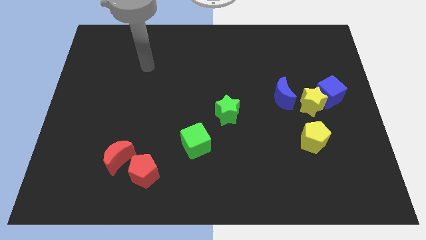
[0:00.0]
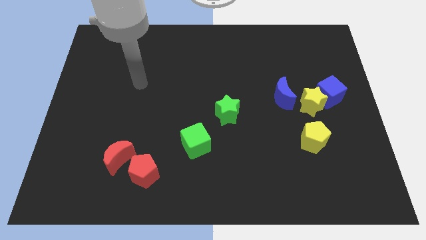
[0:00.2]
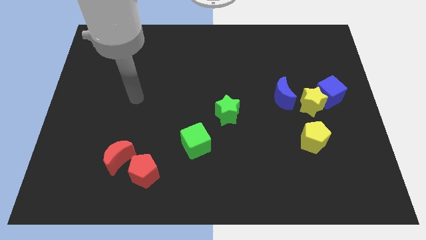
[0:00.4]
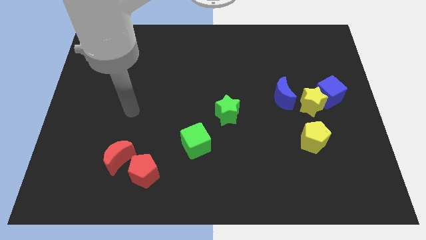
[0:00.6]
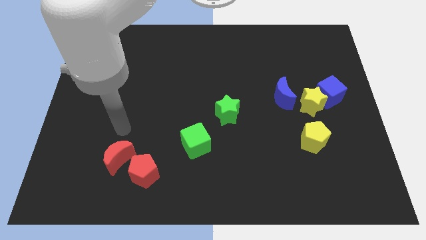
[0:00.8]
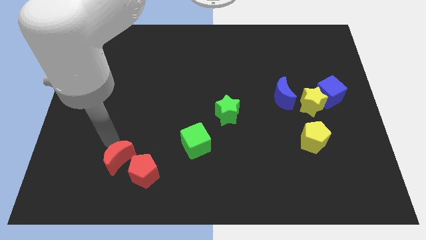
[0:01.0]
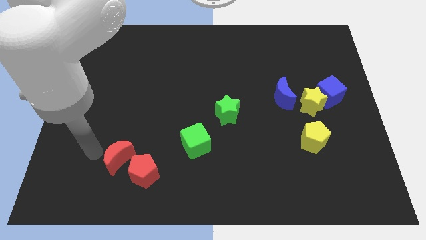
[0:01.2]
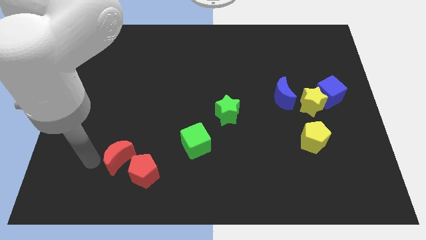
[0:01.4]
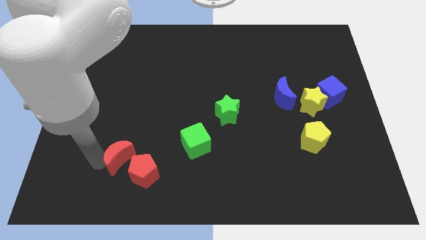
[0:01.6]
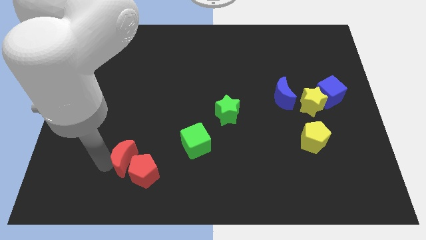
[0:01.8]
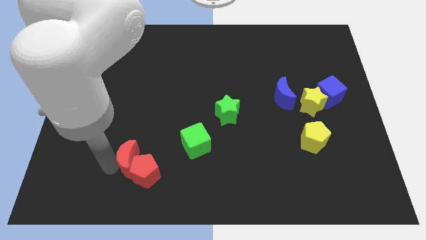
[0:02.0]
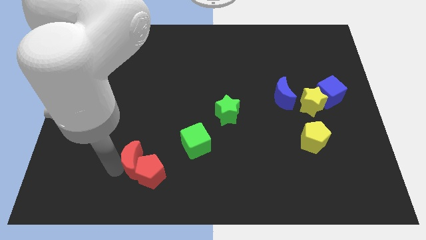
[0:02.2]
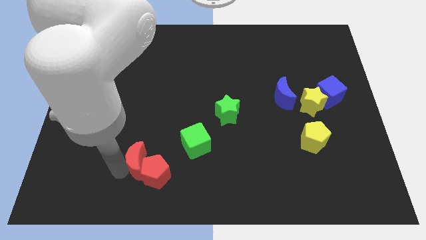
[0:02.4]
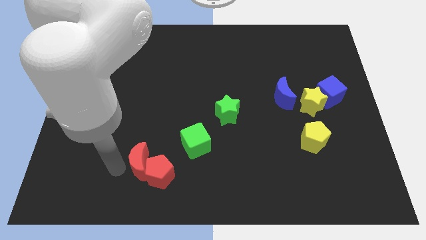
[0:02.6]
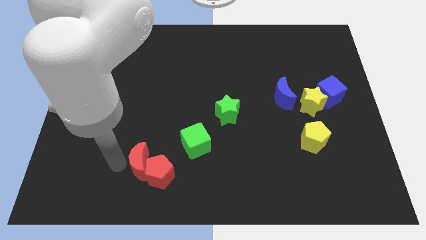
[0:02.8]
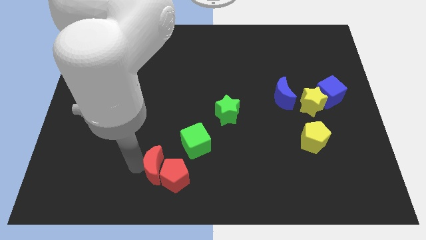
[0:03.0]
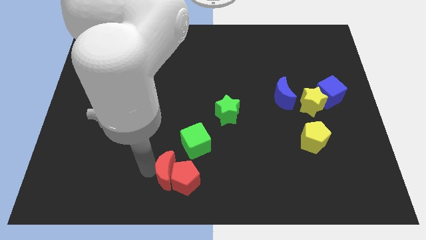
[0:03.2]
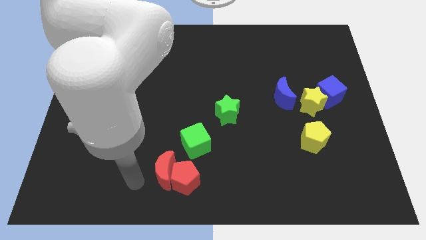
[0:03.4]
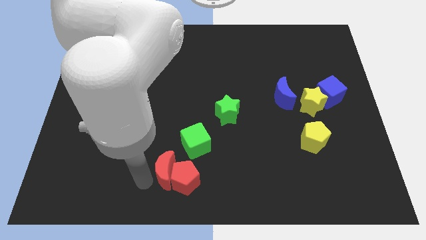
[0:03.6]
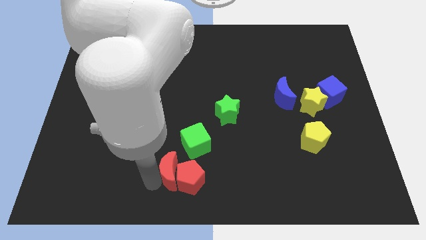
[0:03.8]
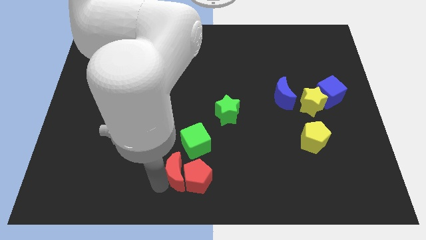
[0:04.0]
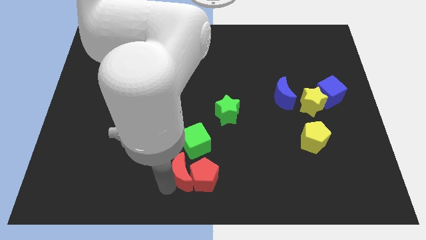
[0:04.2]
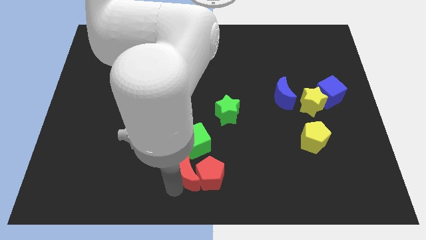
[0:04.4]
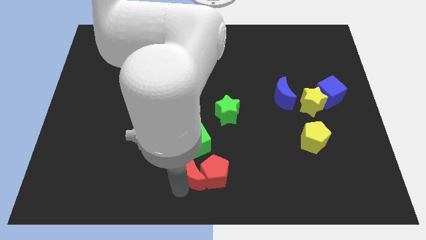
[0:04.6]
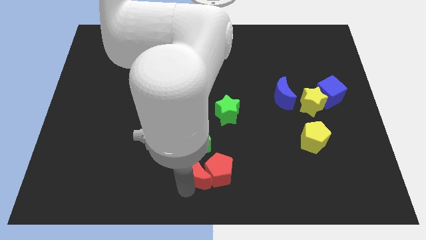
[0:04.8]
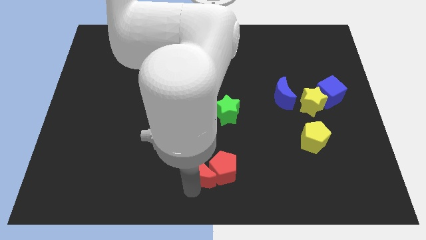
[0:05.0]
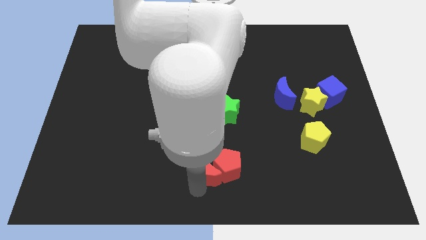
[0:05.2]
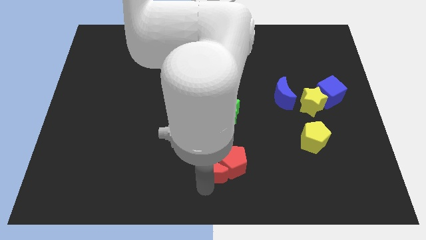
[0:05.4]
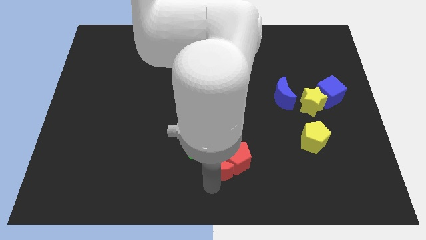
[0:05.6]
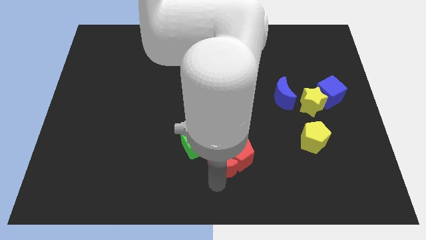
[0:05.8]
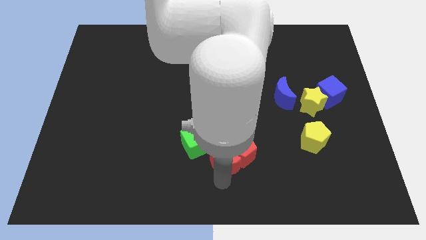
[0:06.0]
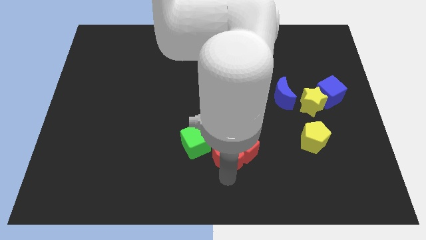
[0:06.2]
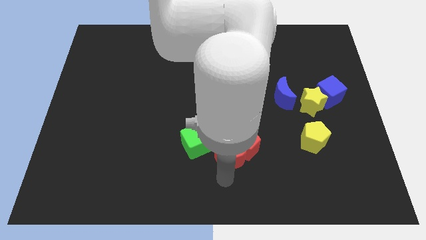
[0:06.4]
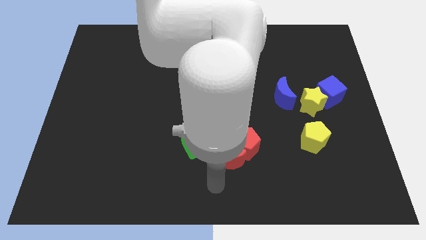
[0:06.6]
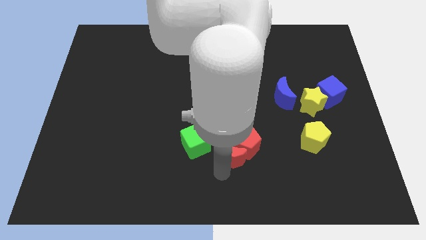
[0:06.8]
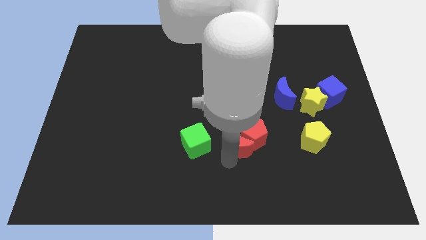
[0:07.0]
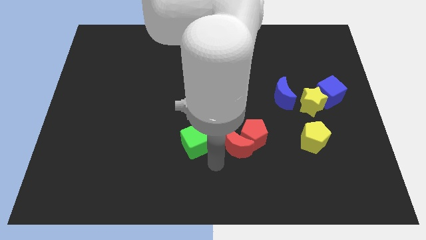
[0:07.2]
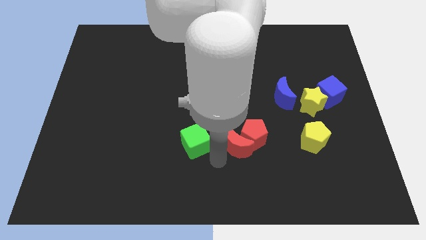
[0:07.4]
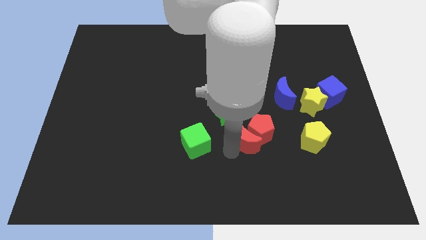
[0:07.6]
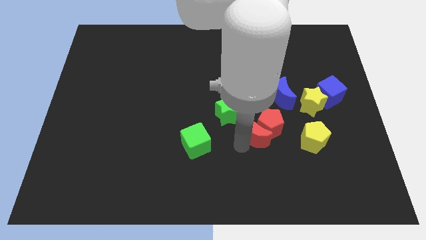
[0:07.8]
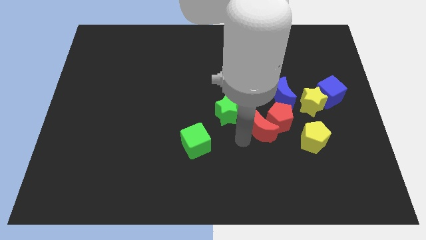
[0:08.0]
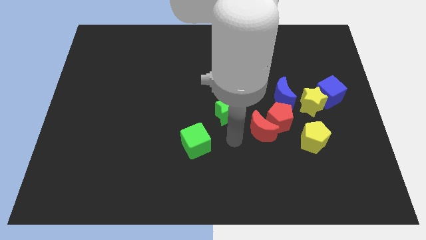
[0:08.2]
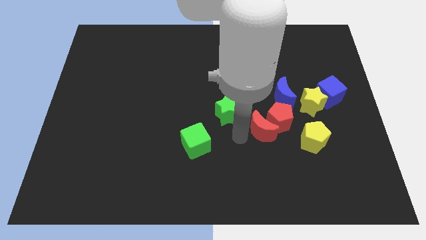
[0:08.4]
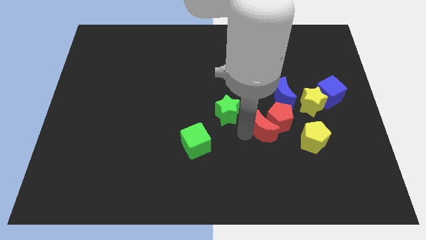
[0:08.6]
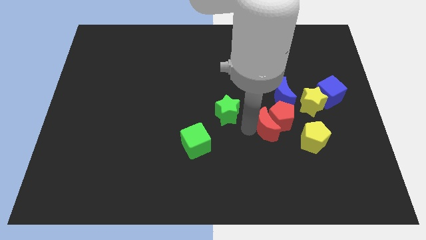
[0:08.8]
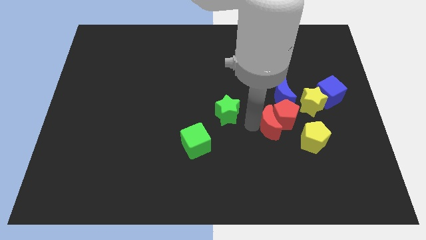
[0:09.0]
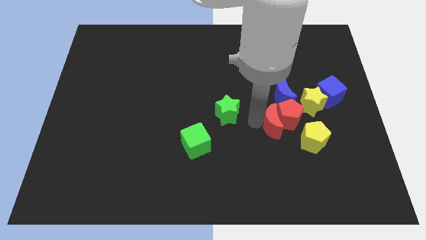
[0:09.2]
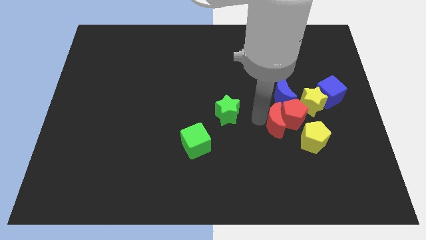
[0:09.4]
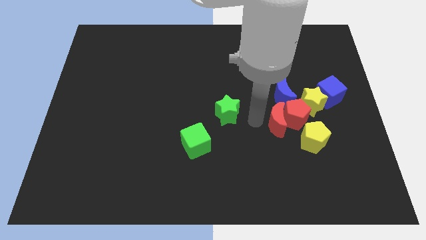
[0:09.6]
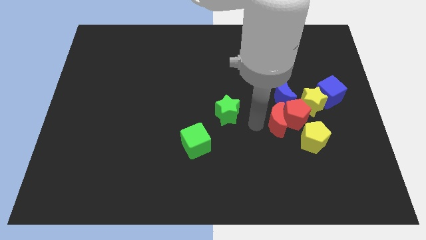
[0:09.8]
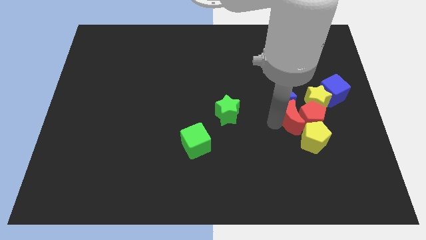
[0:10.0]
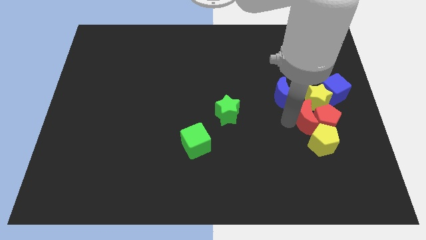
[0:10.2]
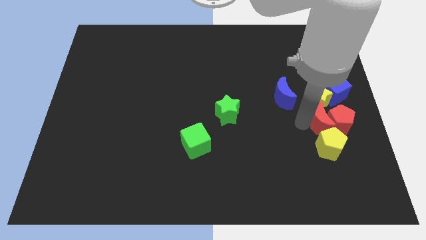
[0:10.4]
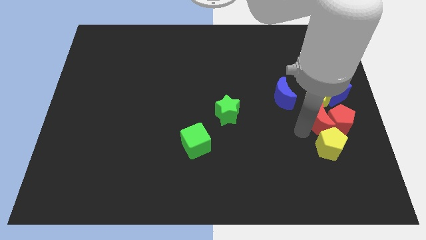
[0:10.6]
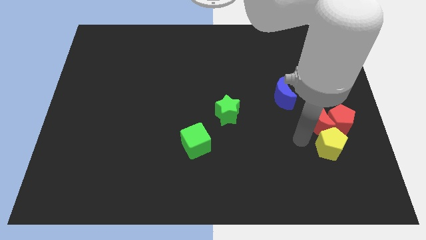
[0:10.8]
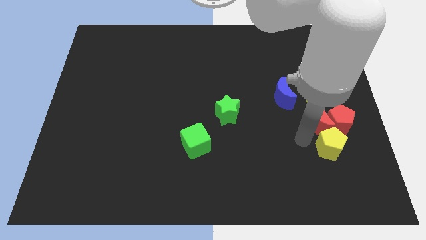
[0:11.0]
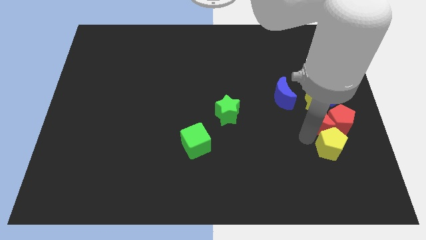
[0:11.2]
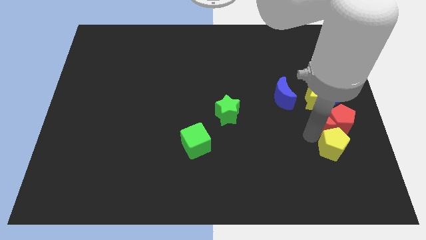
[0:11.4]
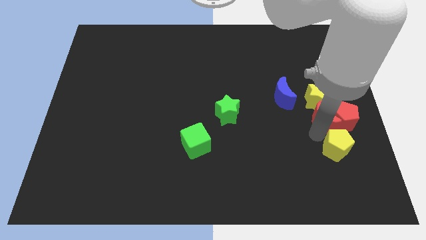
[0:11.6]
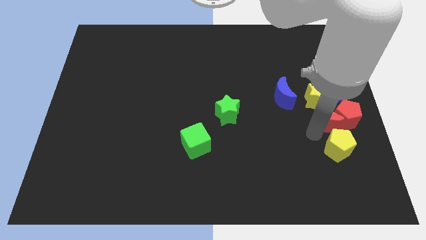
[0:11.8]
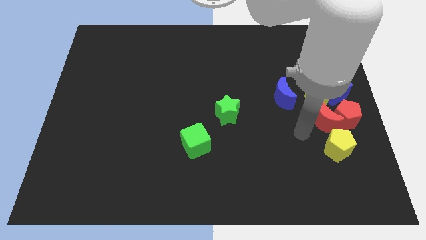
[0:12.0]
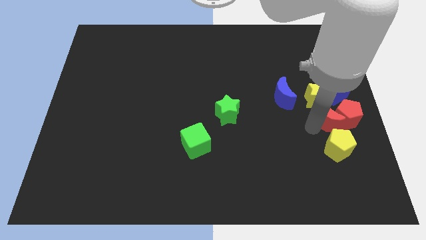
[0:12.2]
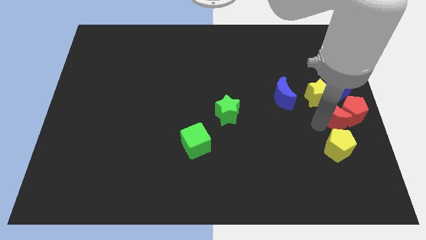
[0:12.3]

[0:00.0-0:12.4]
put the red moon to the right side of the board
